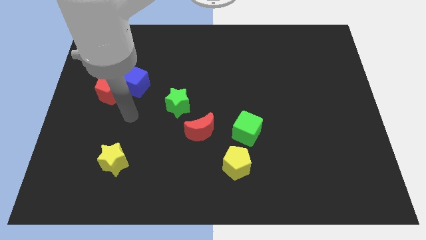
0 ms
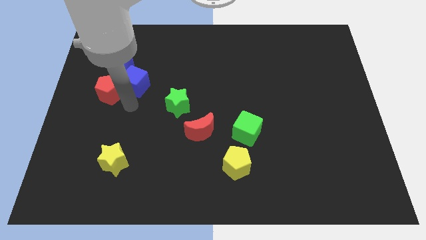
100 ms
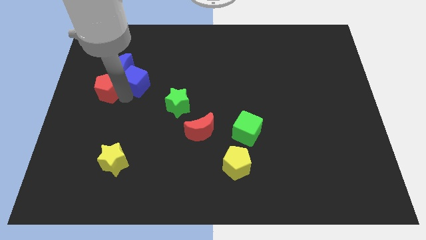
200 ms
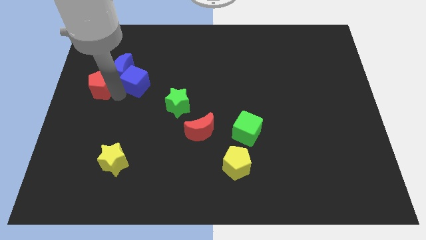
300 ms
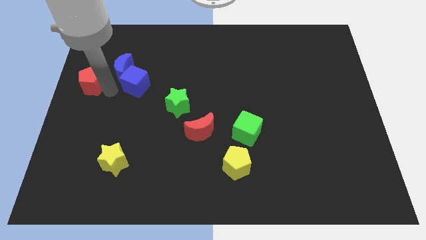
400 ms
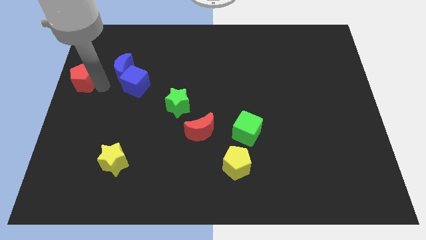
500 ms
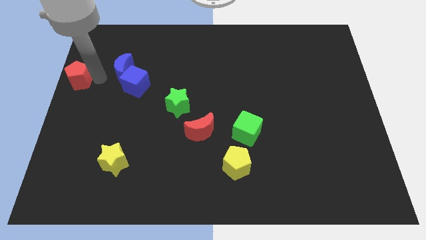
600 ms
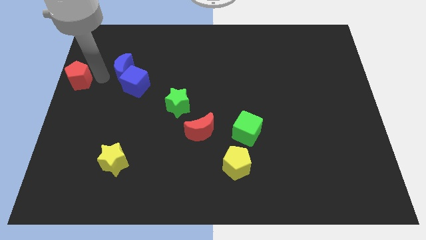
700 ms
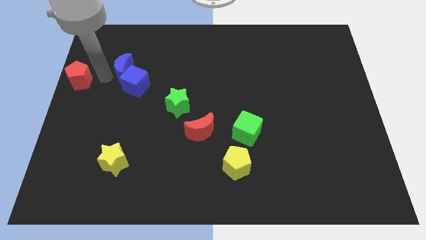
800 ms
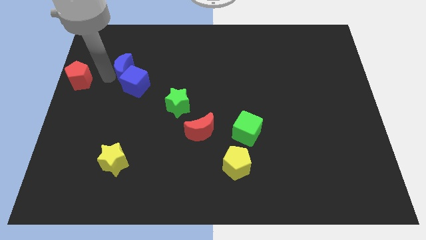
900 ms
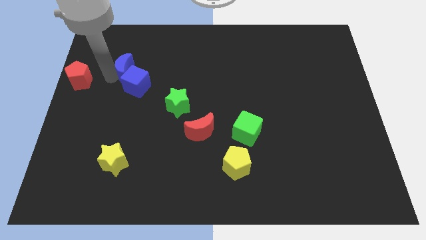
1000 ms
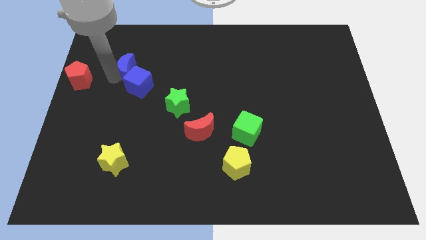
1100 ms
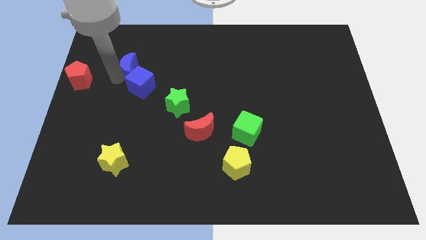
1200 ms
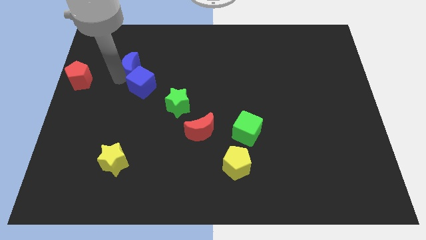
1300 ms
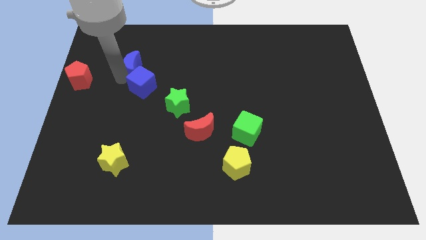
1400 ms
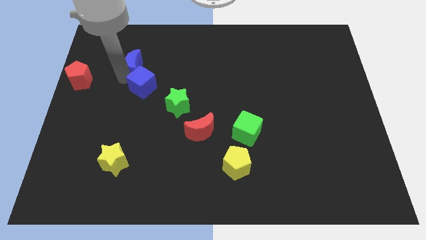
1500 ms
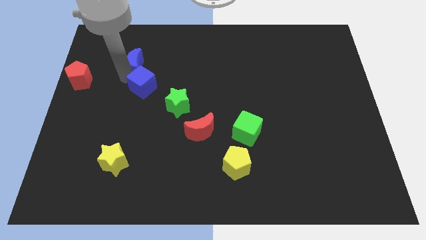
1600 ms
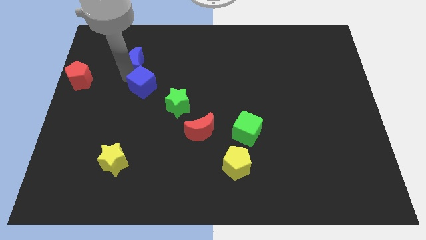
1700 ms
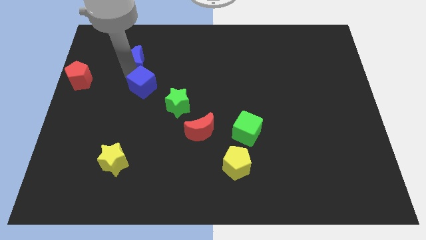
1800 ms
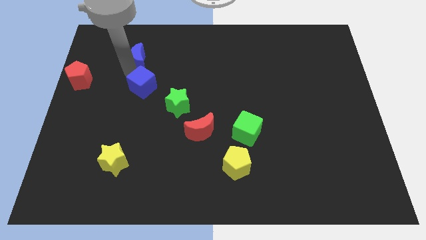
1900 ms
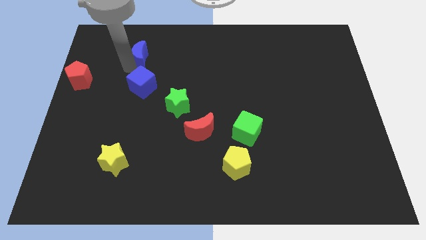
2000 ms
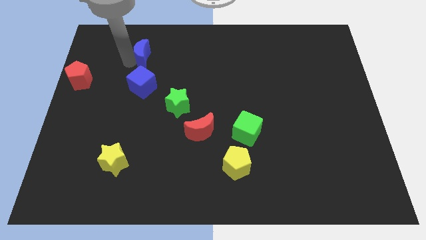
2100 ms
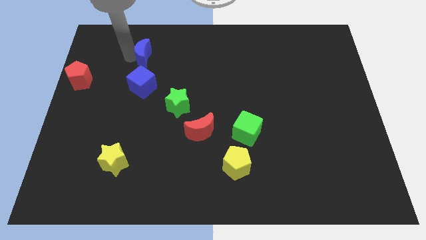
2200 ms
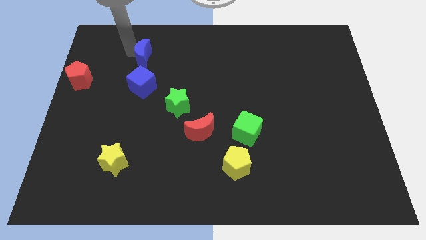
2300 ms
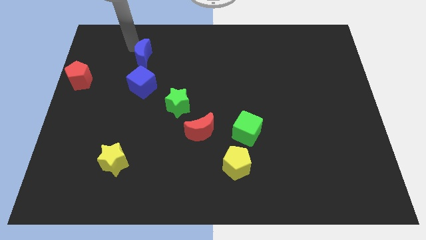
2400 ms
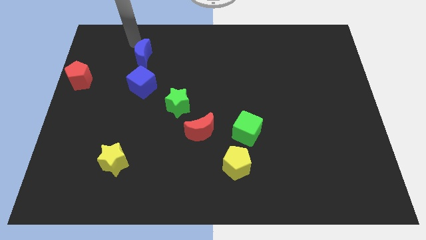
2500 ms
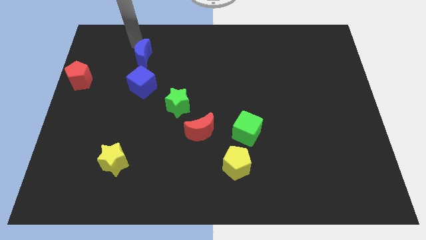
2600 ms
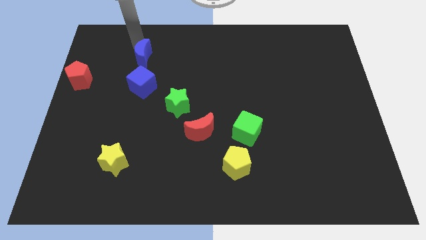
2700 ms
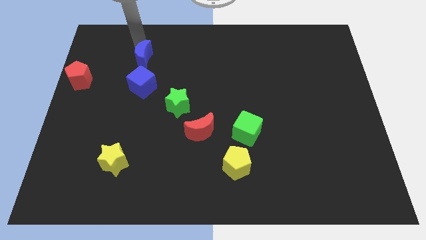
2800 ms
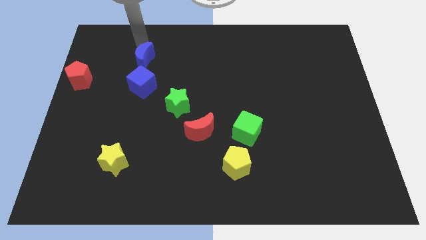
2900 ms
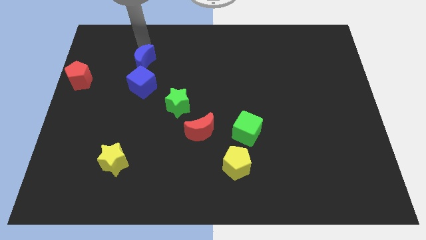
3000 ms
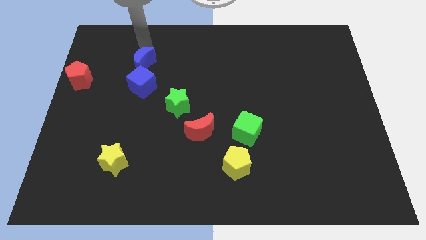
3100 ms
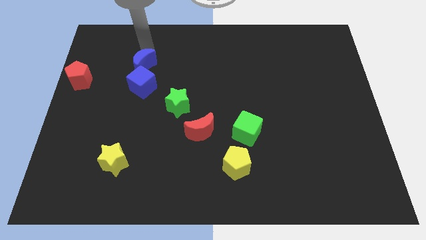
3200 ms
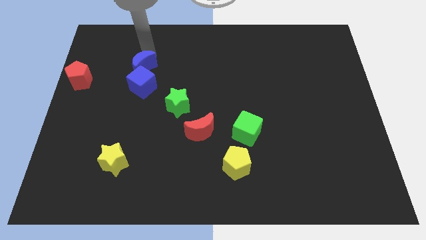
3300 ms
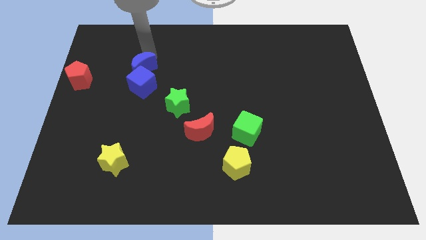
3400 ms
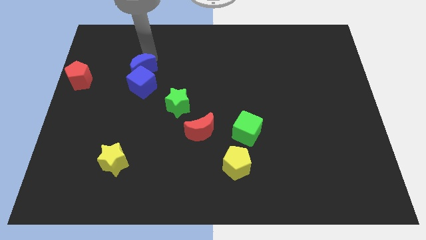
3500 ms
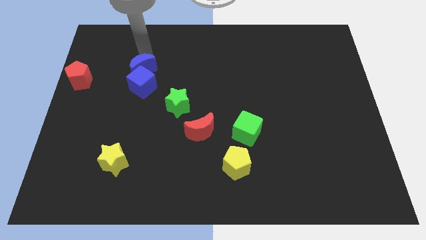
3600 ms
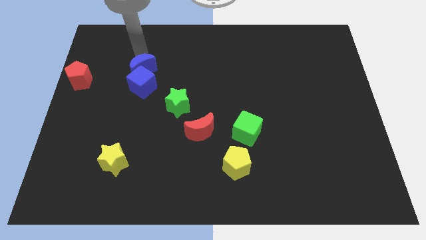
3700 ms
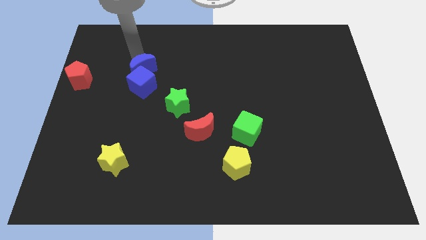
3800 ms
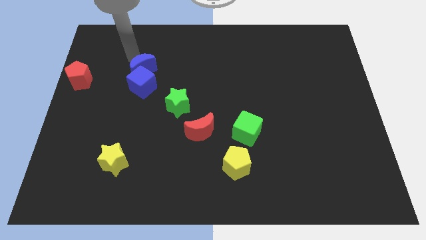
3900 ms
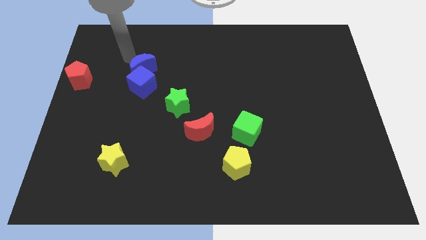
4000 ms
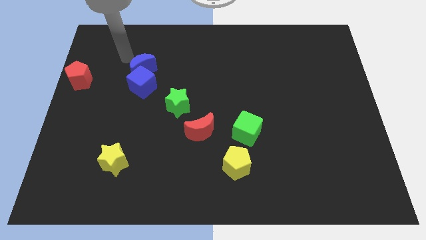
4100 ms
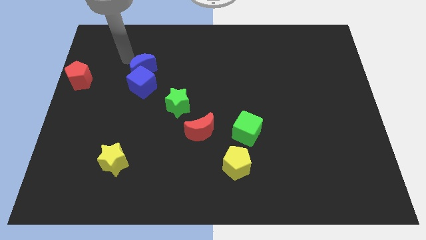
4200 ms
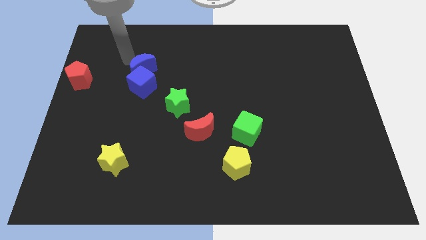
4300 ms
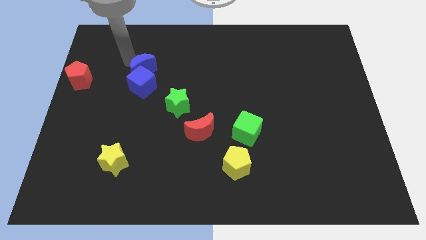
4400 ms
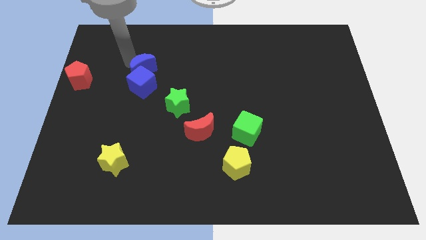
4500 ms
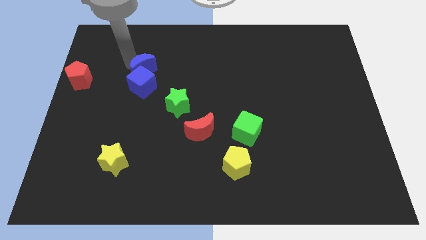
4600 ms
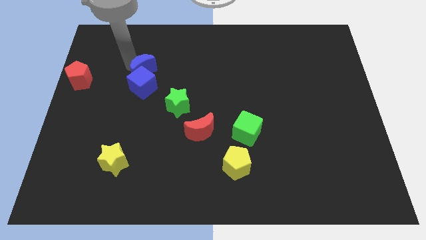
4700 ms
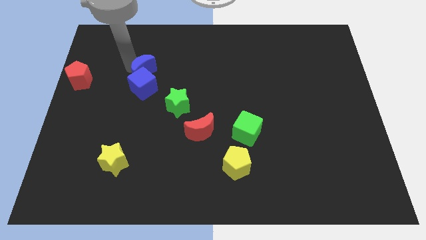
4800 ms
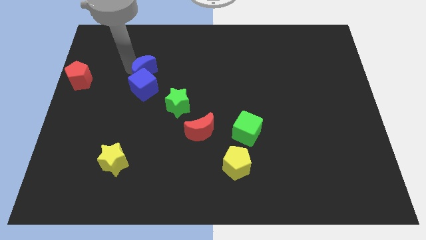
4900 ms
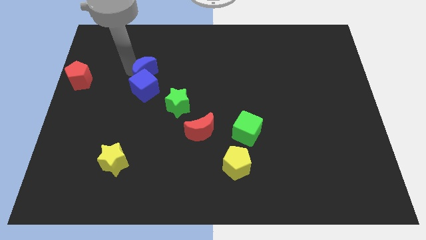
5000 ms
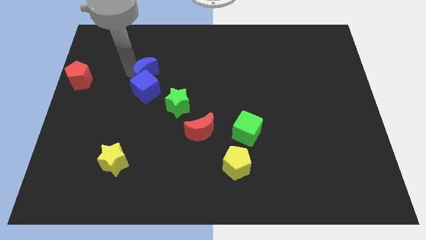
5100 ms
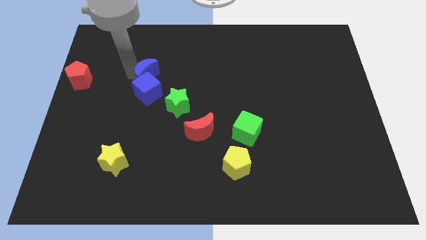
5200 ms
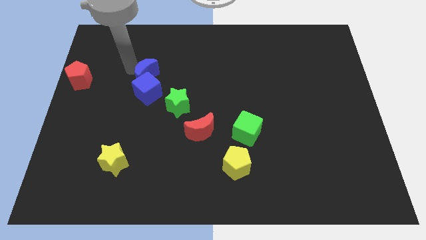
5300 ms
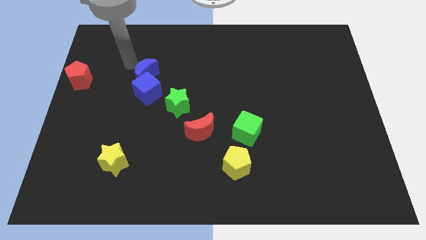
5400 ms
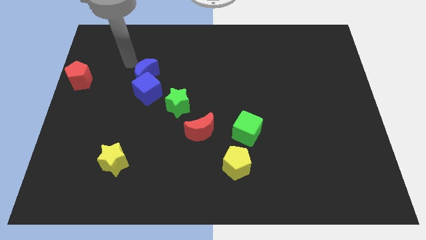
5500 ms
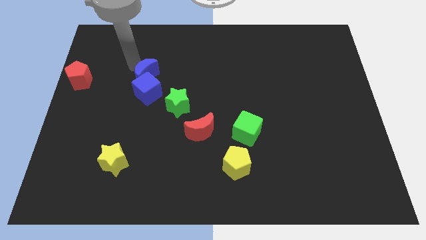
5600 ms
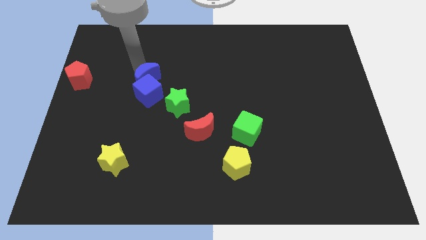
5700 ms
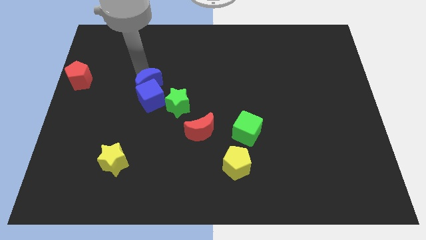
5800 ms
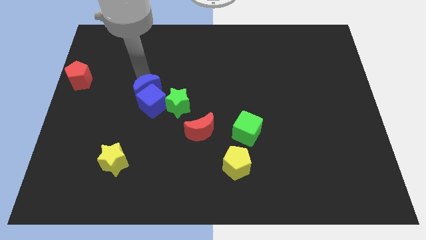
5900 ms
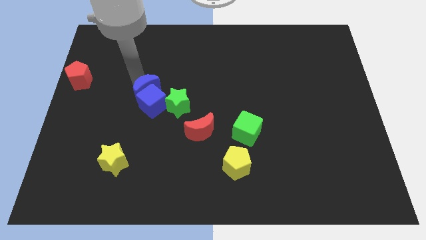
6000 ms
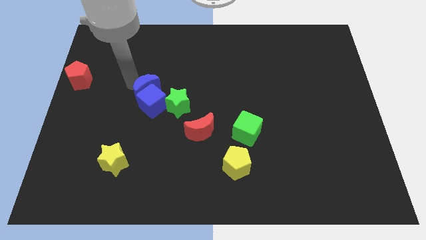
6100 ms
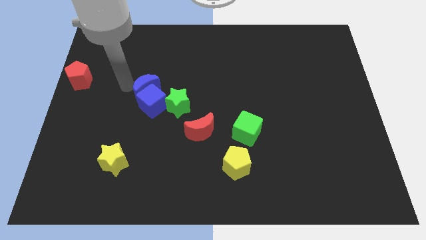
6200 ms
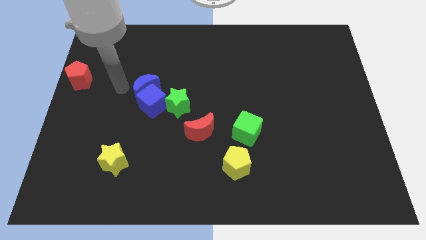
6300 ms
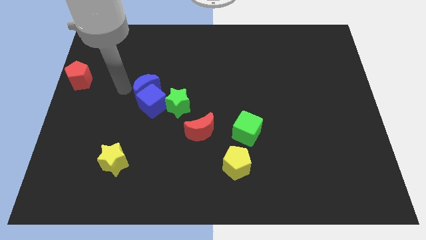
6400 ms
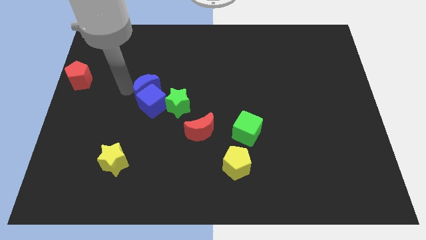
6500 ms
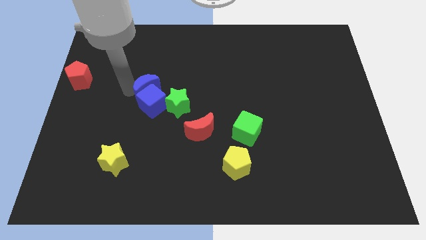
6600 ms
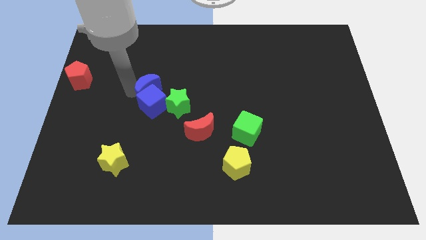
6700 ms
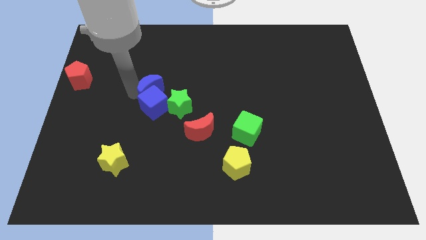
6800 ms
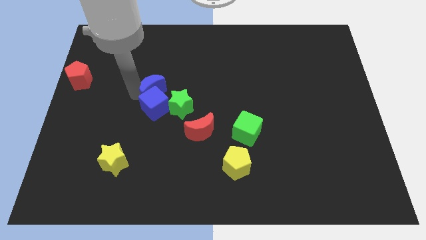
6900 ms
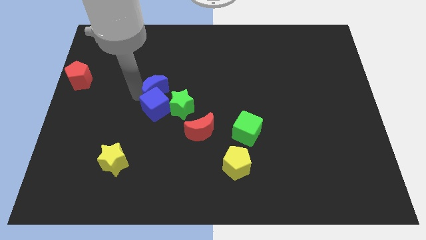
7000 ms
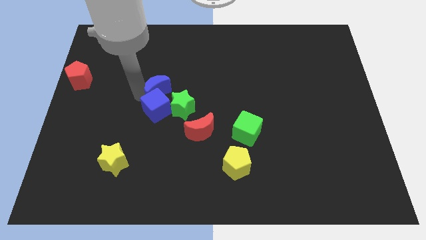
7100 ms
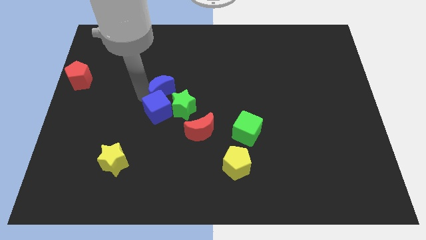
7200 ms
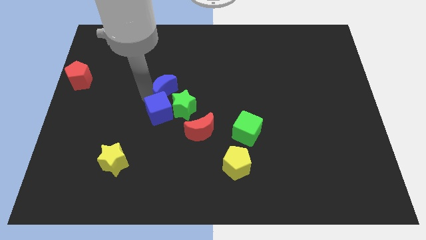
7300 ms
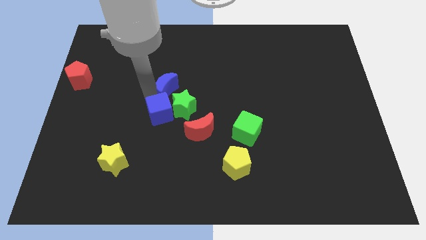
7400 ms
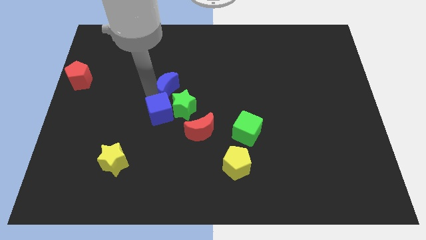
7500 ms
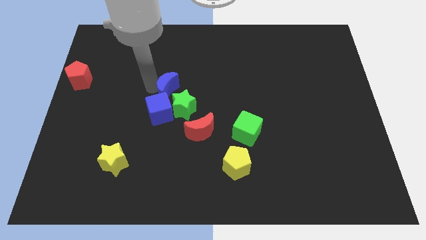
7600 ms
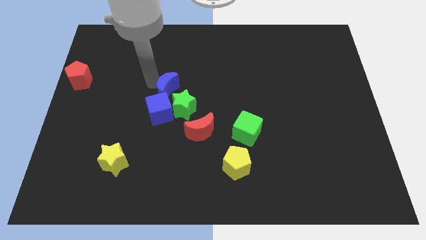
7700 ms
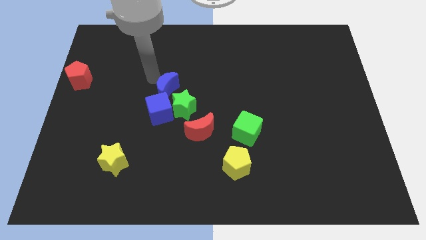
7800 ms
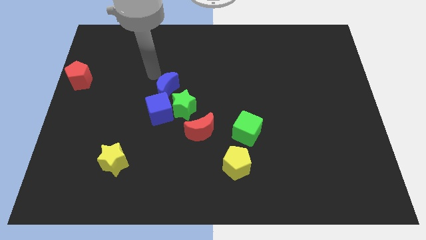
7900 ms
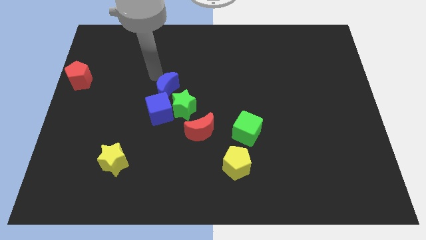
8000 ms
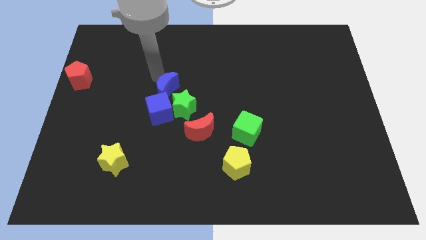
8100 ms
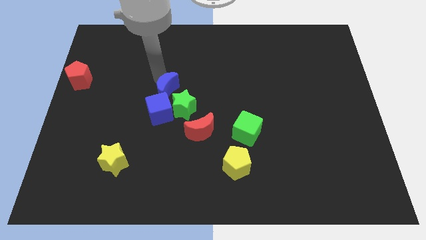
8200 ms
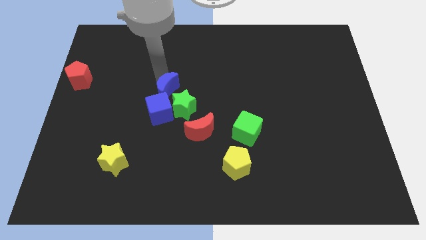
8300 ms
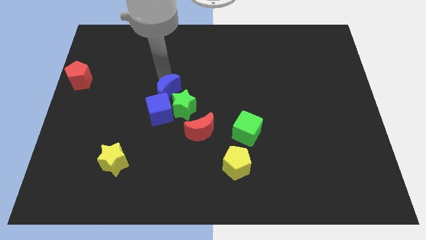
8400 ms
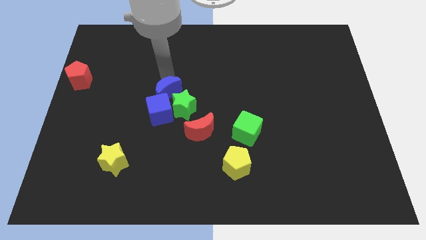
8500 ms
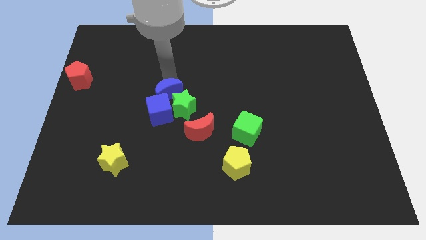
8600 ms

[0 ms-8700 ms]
slide the blue moon towards the green star
